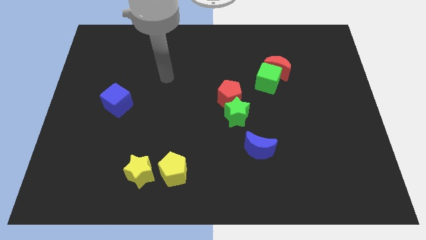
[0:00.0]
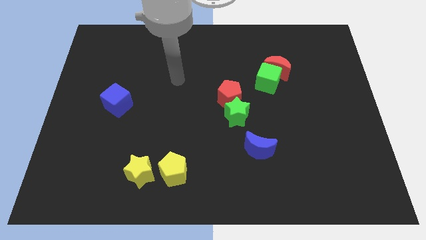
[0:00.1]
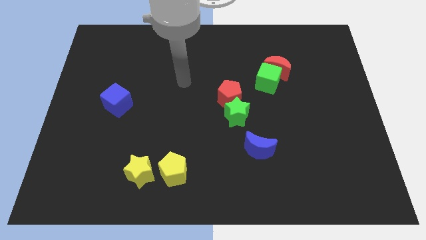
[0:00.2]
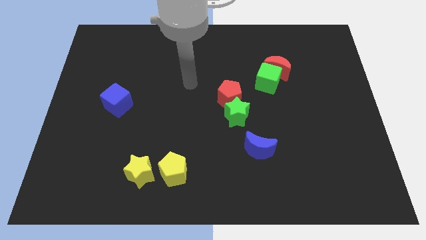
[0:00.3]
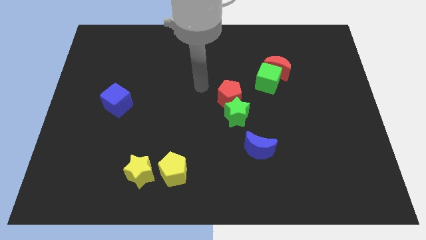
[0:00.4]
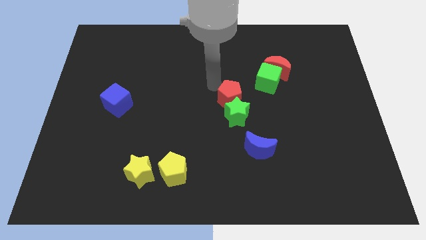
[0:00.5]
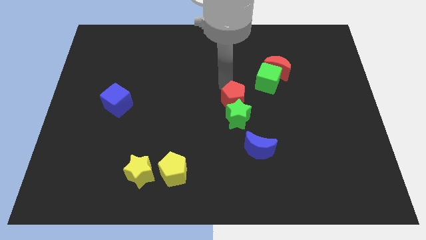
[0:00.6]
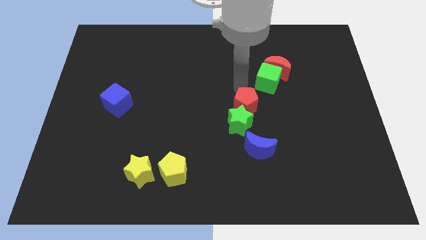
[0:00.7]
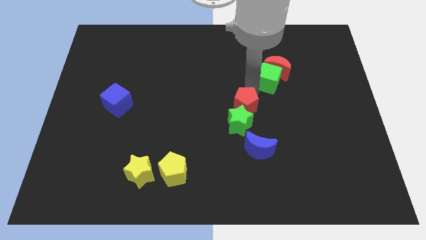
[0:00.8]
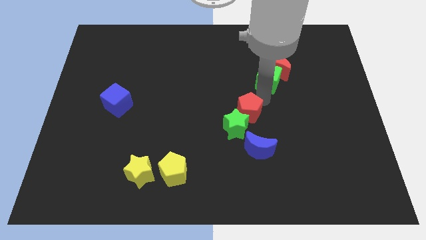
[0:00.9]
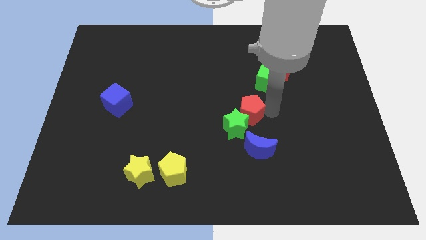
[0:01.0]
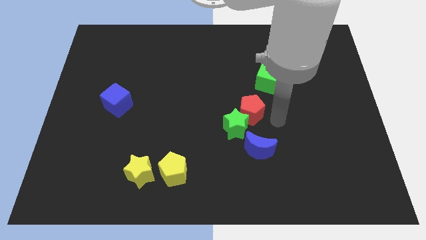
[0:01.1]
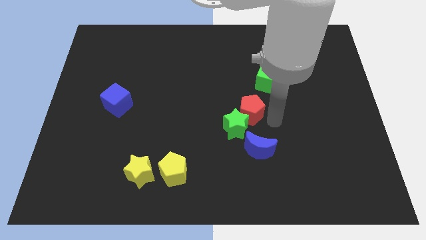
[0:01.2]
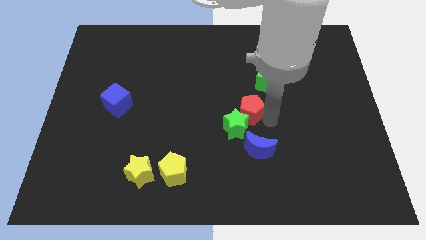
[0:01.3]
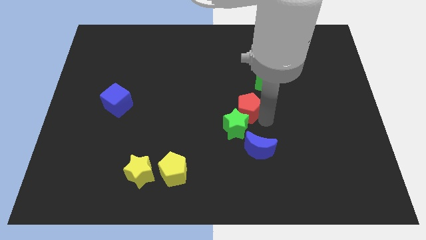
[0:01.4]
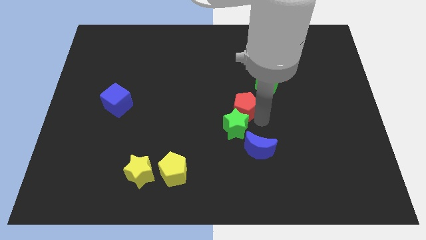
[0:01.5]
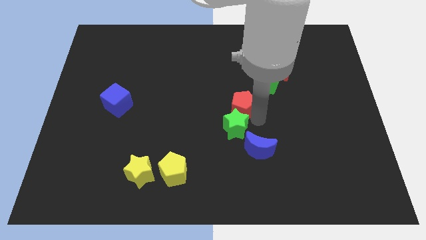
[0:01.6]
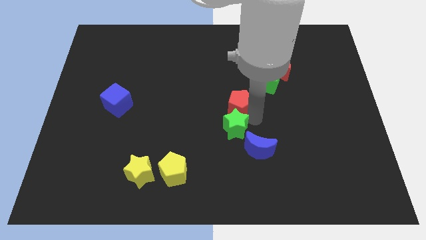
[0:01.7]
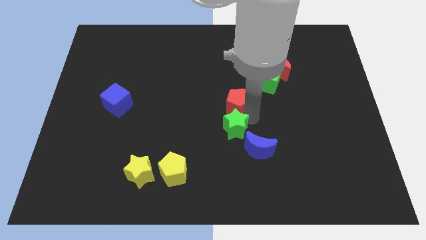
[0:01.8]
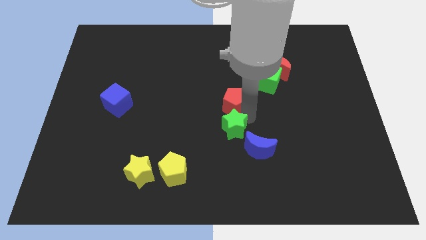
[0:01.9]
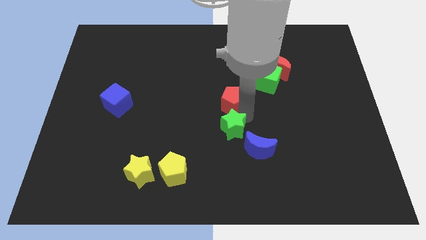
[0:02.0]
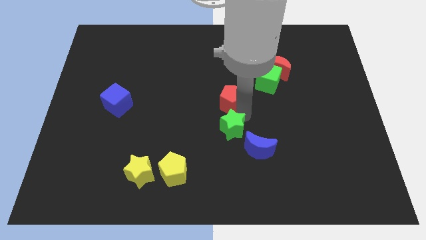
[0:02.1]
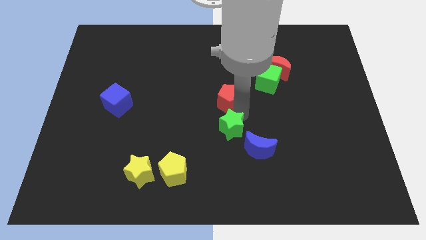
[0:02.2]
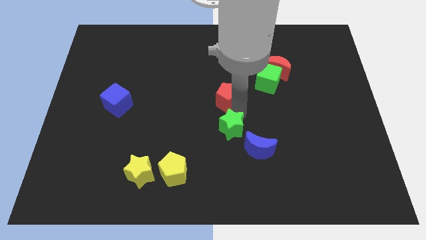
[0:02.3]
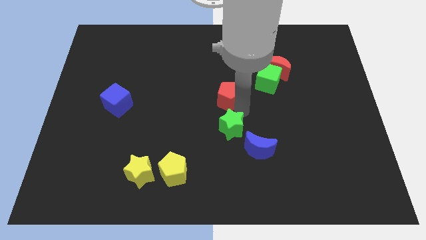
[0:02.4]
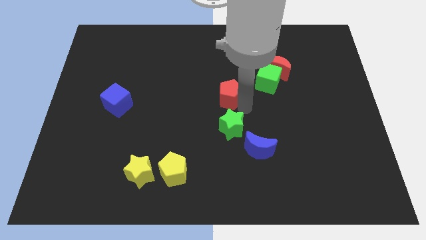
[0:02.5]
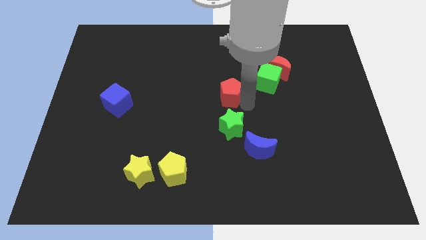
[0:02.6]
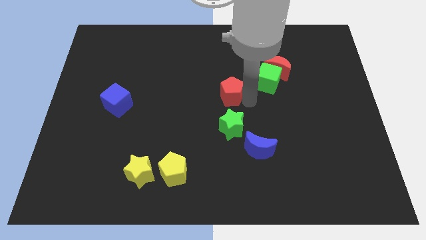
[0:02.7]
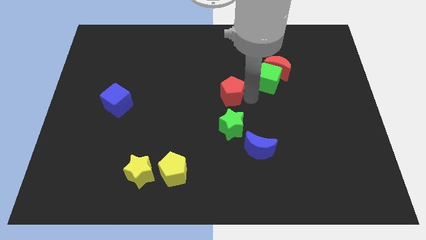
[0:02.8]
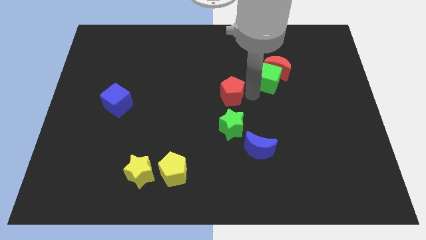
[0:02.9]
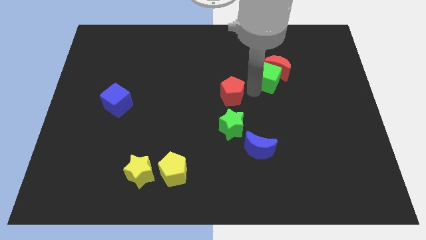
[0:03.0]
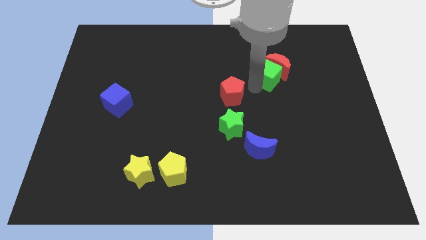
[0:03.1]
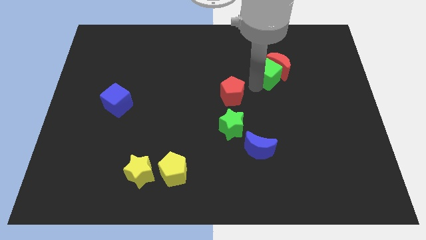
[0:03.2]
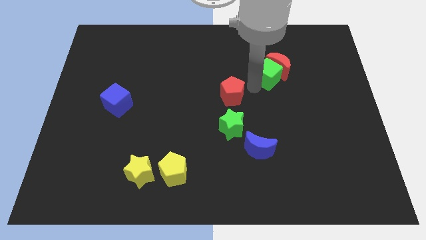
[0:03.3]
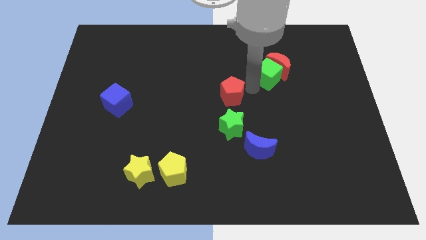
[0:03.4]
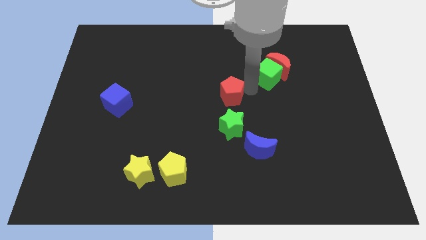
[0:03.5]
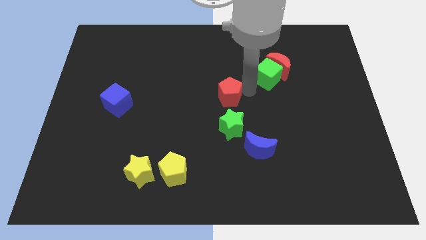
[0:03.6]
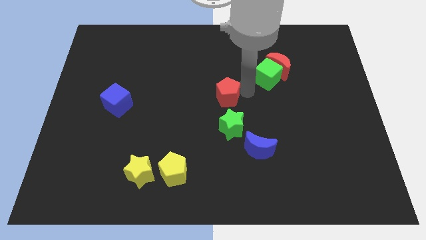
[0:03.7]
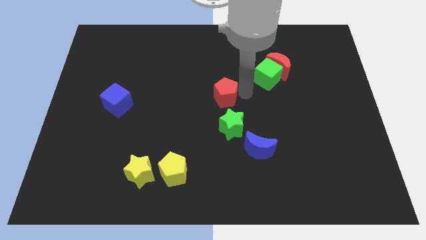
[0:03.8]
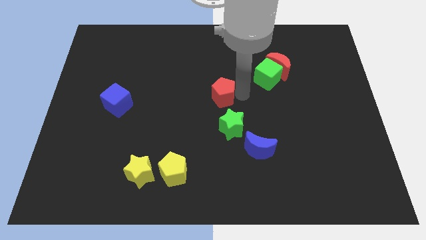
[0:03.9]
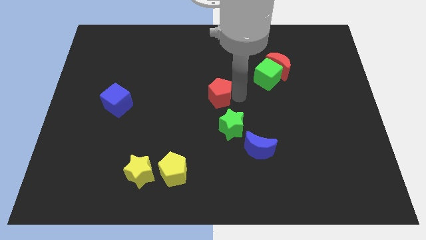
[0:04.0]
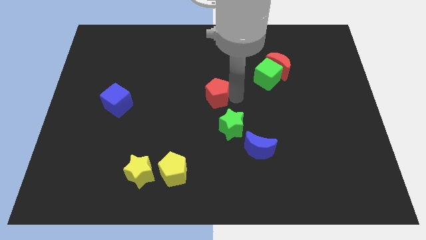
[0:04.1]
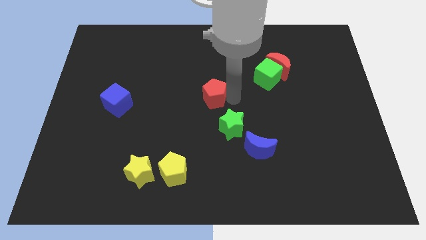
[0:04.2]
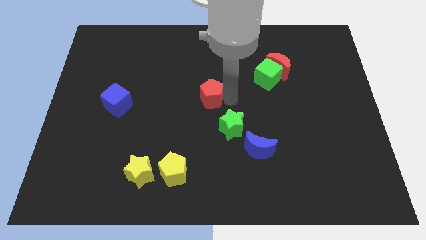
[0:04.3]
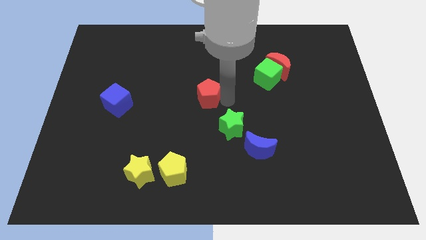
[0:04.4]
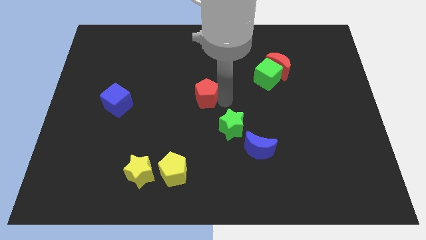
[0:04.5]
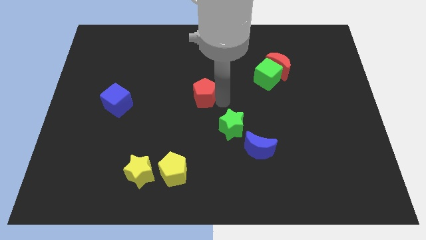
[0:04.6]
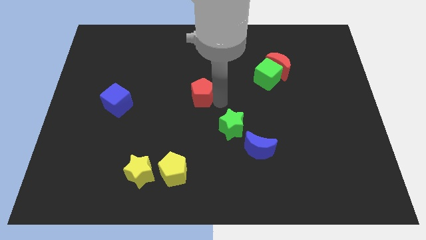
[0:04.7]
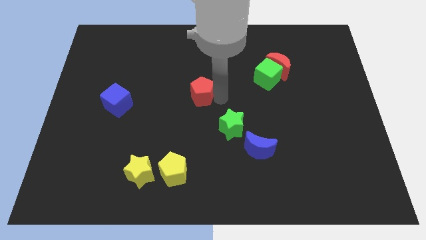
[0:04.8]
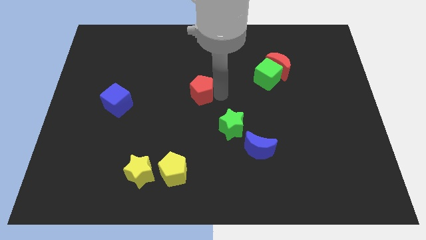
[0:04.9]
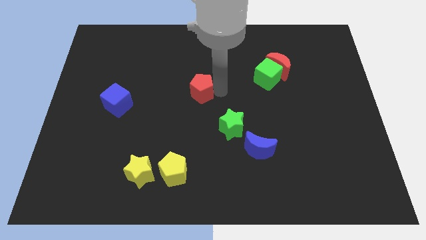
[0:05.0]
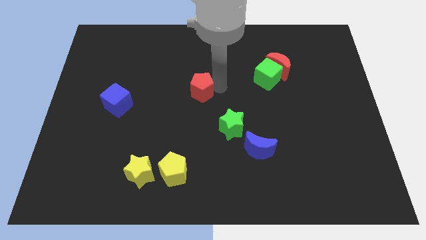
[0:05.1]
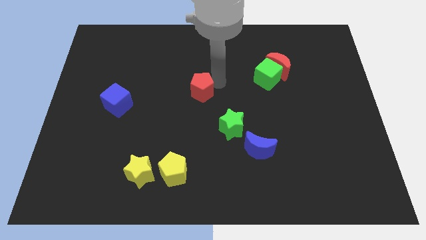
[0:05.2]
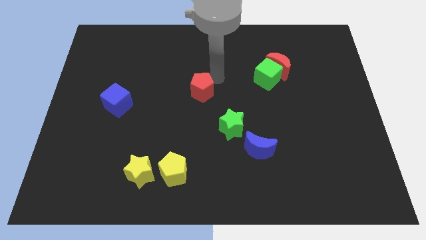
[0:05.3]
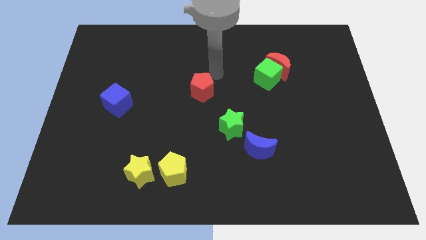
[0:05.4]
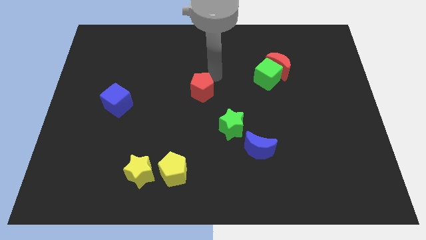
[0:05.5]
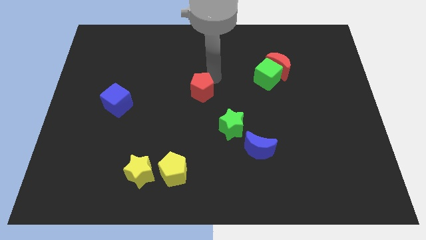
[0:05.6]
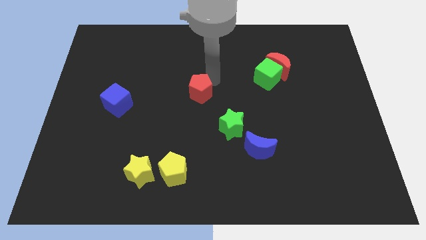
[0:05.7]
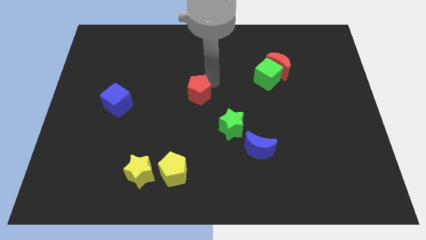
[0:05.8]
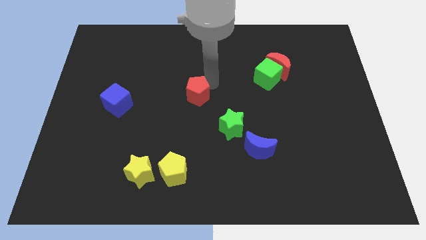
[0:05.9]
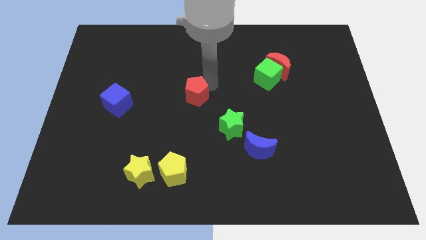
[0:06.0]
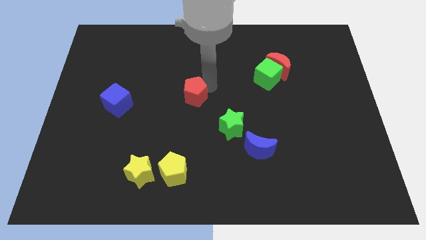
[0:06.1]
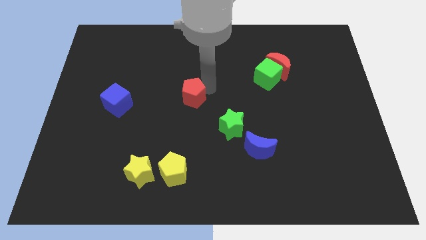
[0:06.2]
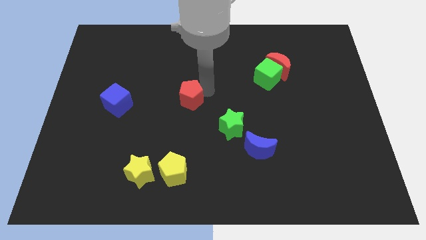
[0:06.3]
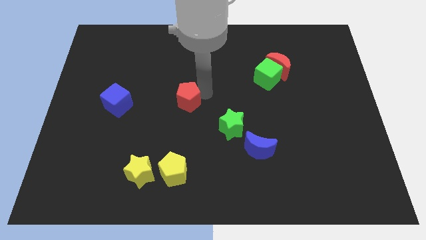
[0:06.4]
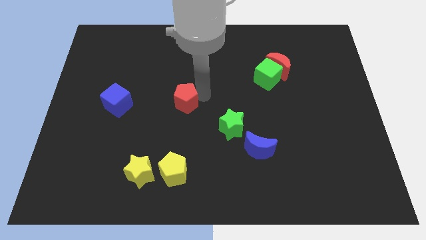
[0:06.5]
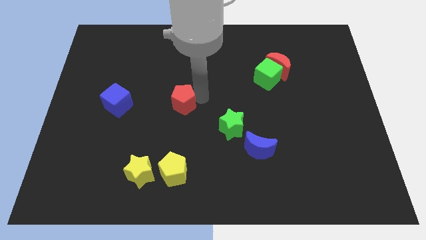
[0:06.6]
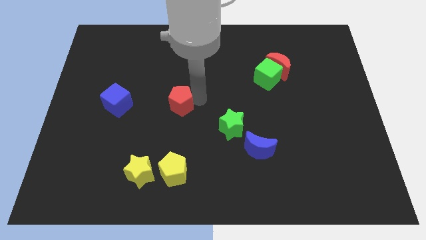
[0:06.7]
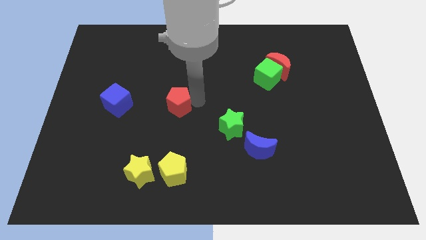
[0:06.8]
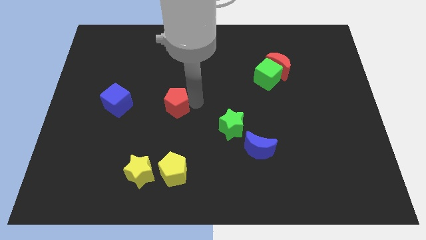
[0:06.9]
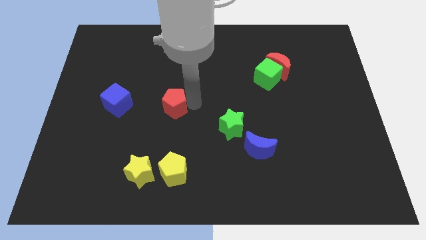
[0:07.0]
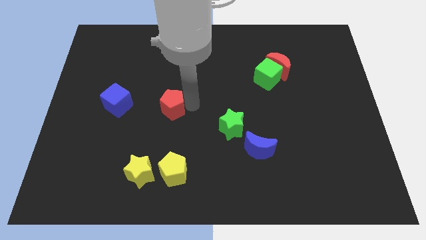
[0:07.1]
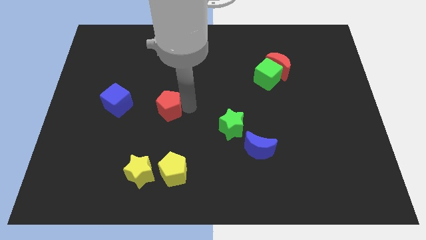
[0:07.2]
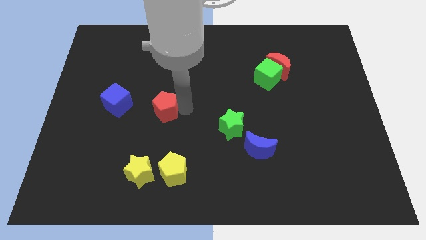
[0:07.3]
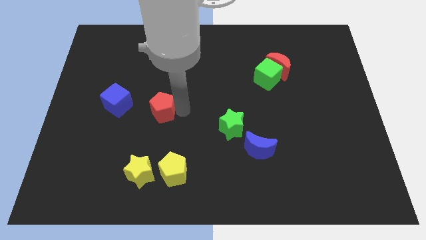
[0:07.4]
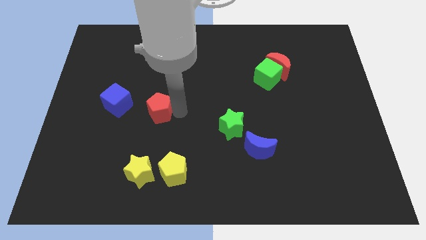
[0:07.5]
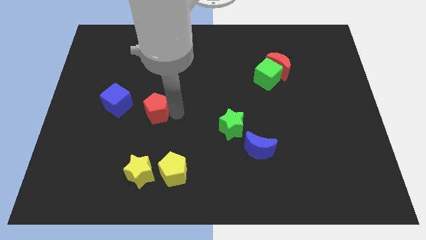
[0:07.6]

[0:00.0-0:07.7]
move the red pentagon diagonally down and to the right of the blue cube
